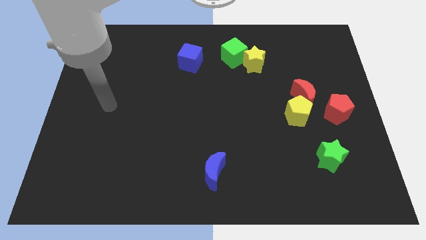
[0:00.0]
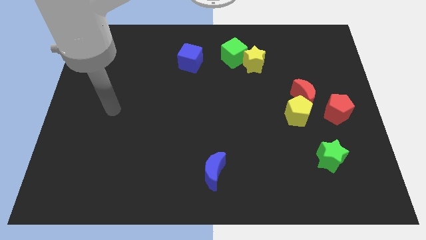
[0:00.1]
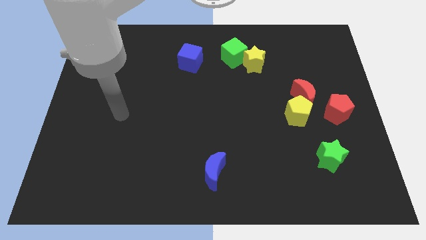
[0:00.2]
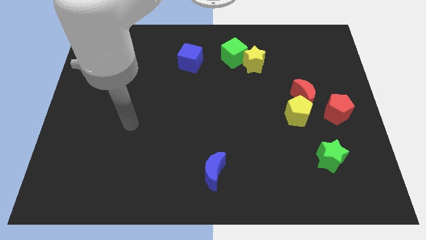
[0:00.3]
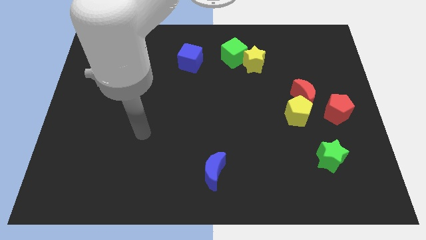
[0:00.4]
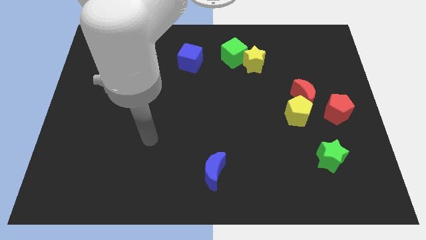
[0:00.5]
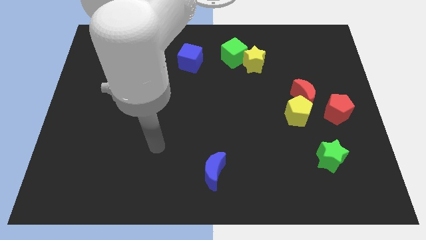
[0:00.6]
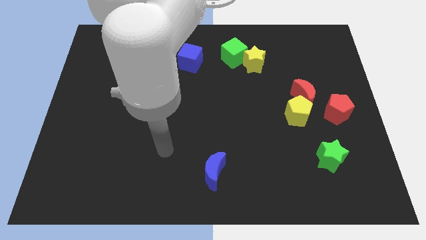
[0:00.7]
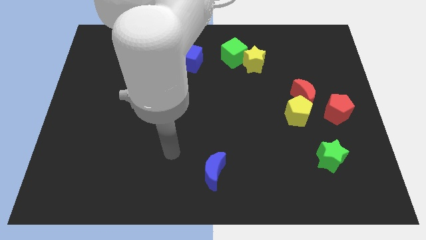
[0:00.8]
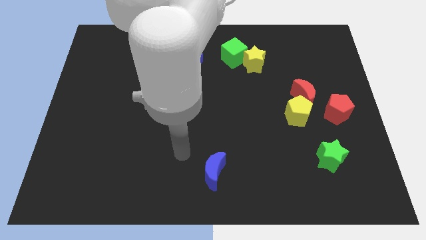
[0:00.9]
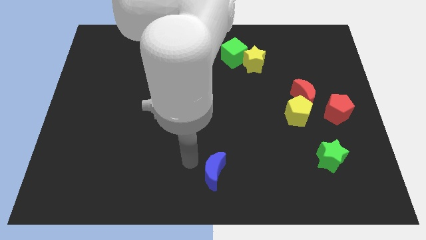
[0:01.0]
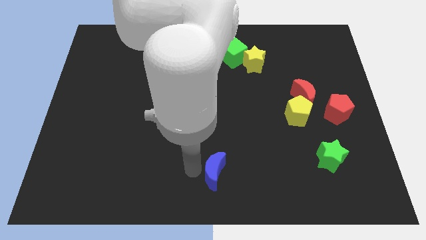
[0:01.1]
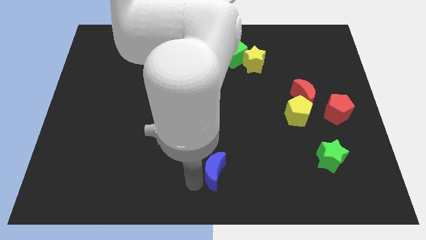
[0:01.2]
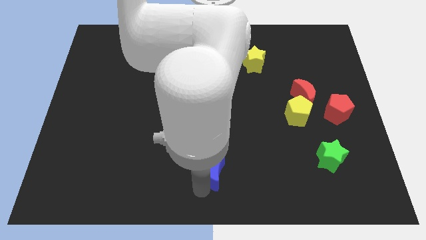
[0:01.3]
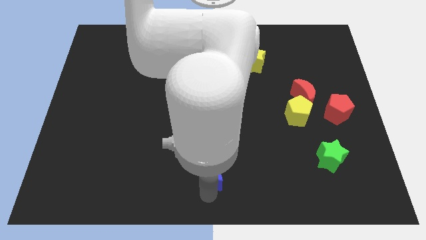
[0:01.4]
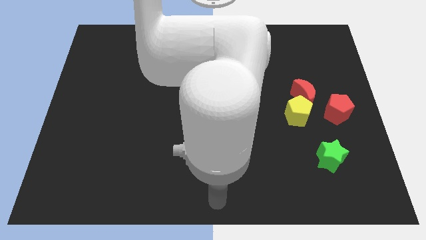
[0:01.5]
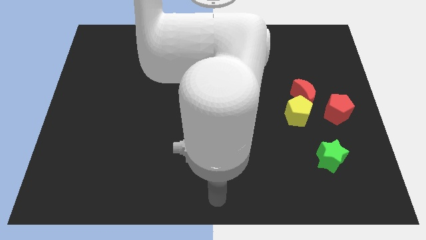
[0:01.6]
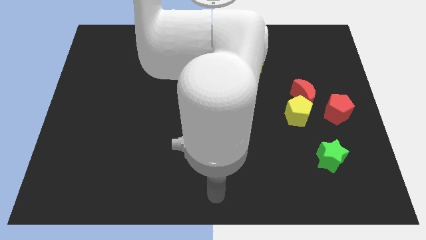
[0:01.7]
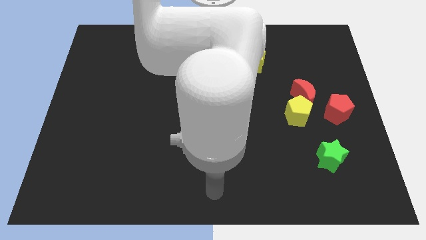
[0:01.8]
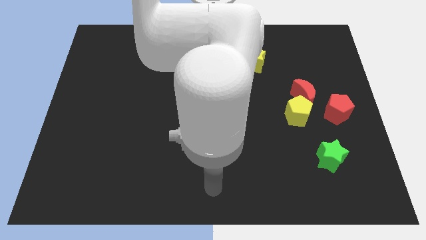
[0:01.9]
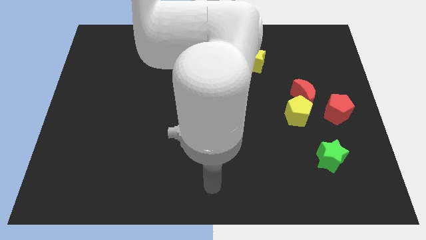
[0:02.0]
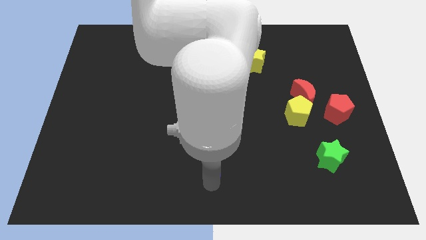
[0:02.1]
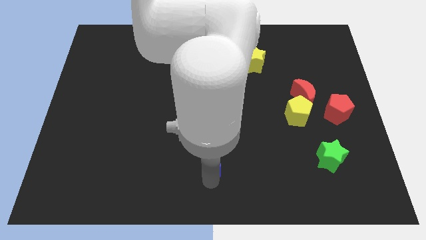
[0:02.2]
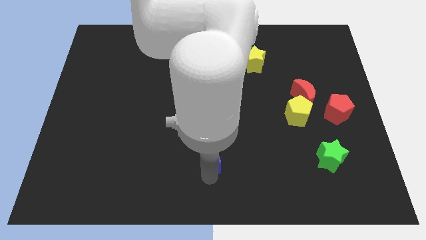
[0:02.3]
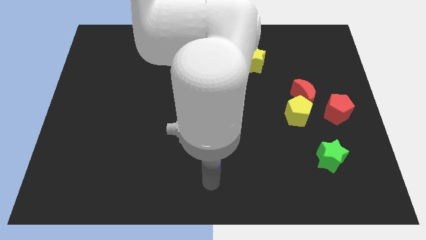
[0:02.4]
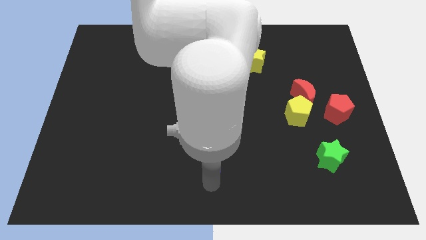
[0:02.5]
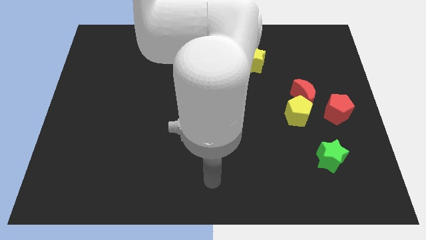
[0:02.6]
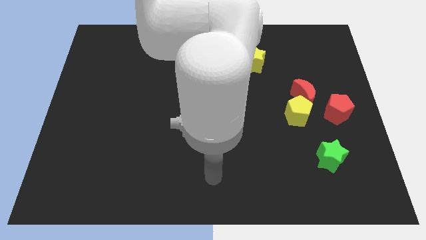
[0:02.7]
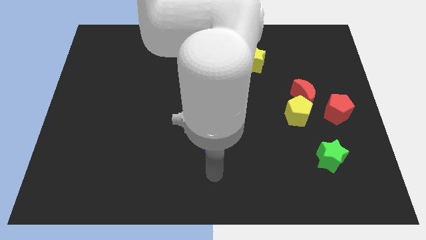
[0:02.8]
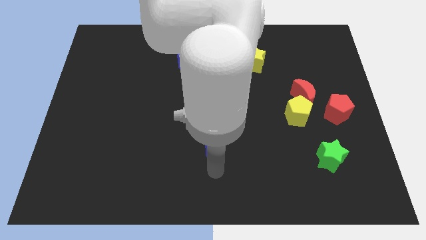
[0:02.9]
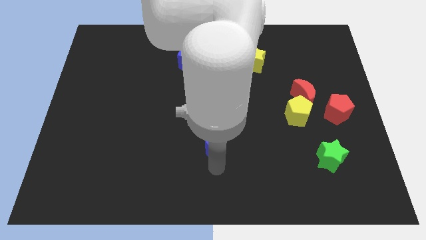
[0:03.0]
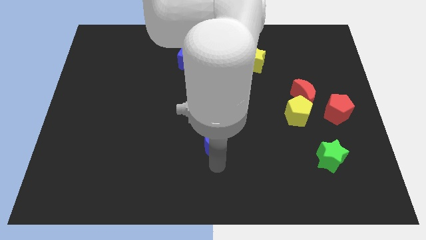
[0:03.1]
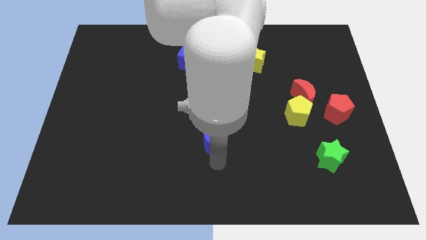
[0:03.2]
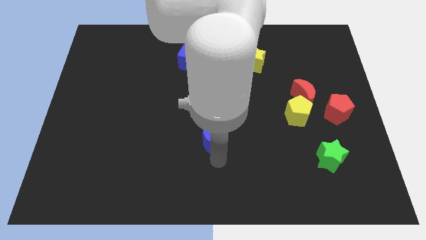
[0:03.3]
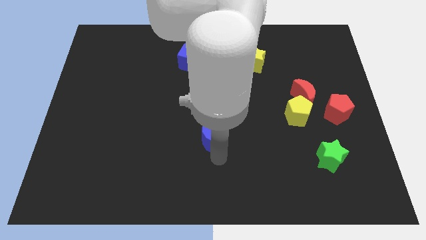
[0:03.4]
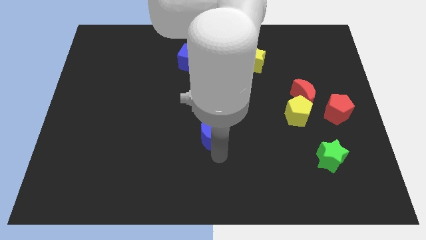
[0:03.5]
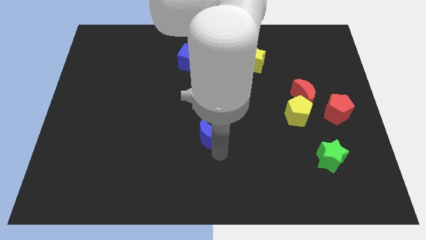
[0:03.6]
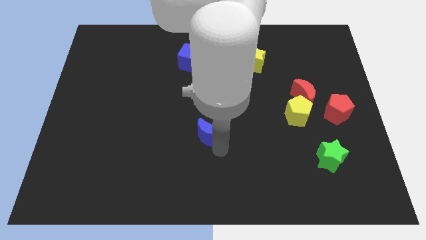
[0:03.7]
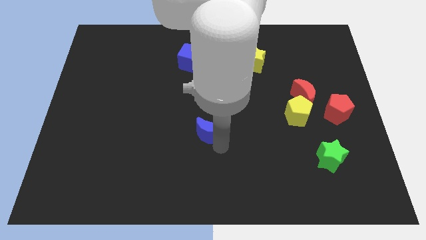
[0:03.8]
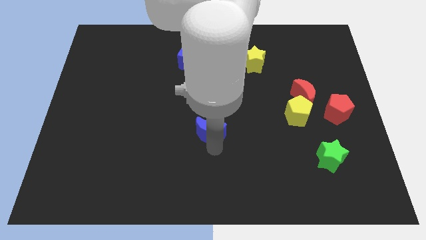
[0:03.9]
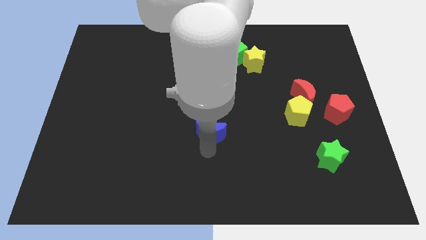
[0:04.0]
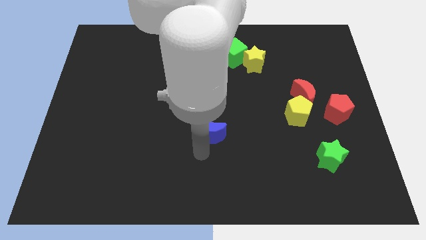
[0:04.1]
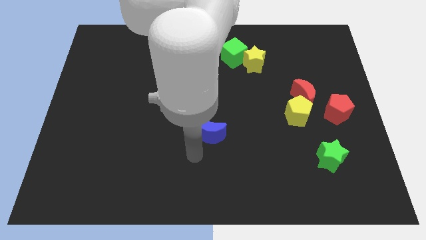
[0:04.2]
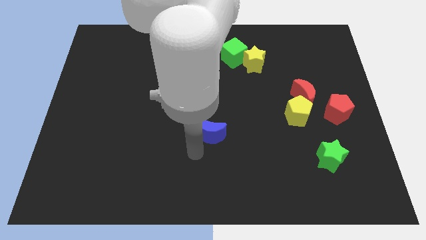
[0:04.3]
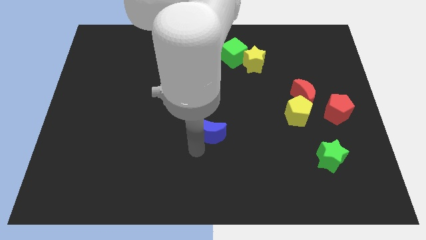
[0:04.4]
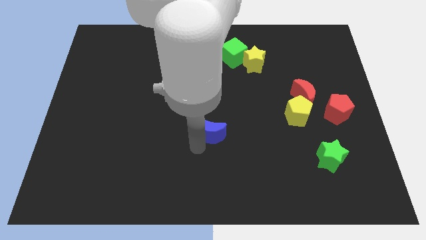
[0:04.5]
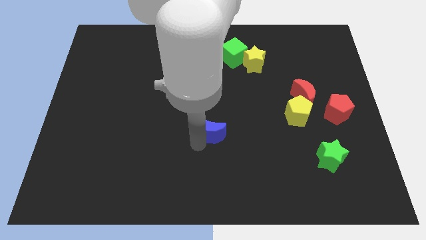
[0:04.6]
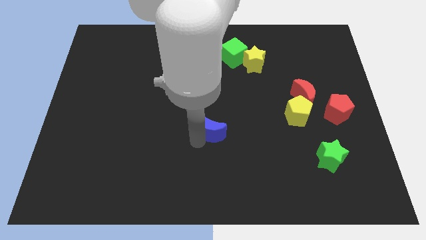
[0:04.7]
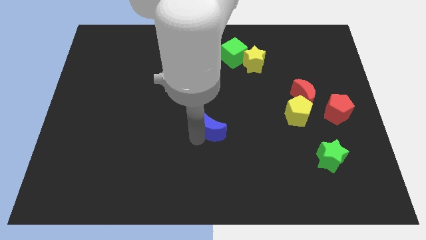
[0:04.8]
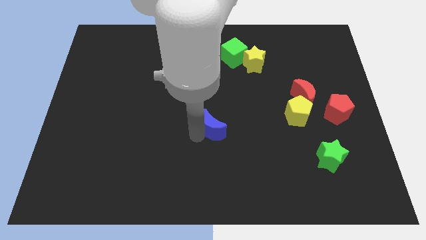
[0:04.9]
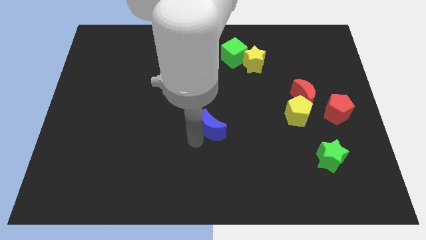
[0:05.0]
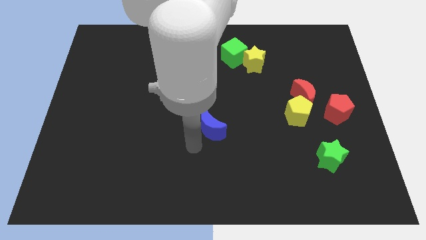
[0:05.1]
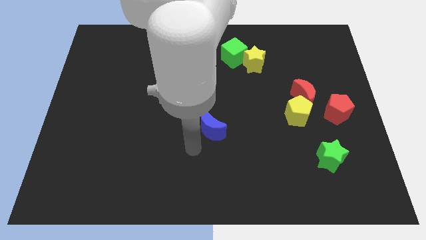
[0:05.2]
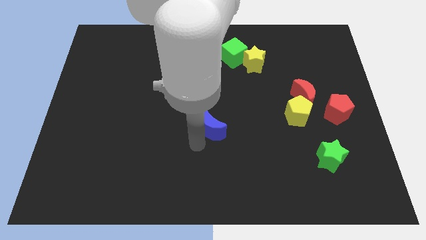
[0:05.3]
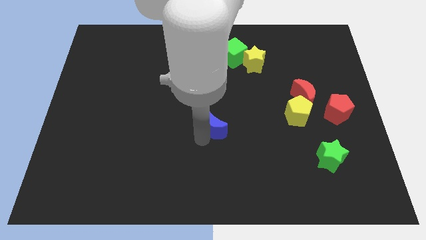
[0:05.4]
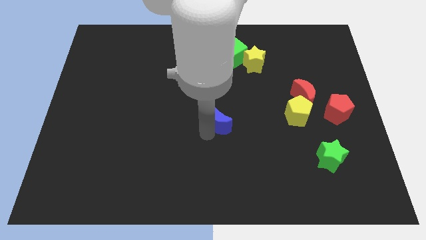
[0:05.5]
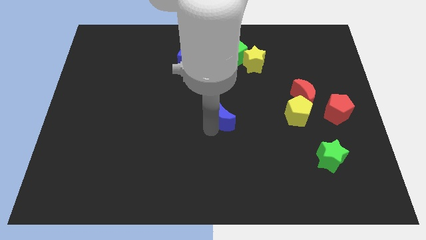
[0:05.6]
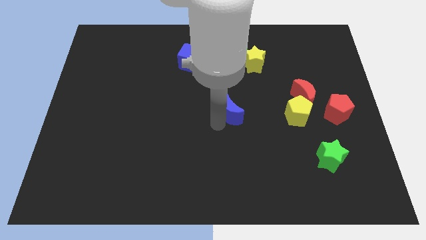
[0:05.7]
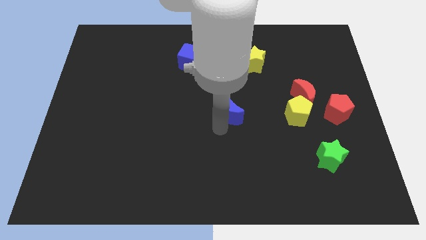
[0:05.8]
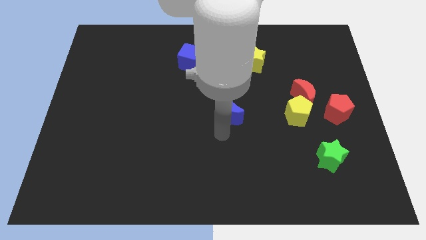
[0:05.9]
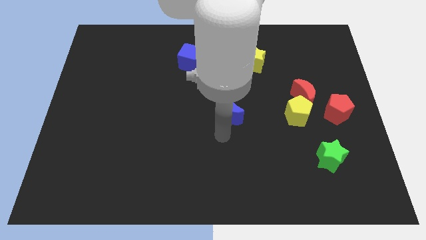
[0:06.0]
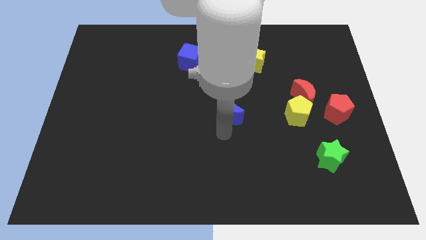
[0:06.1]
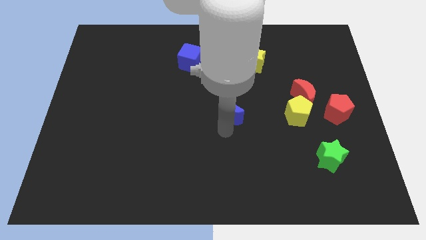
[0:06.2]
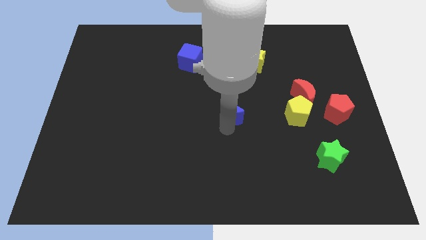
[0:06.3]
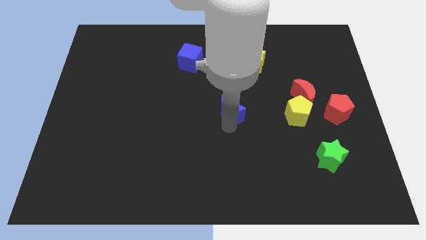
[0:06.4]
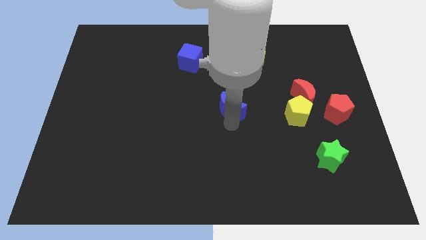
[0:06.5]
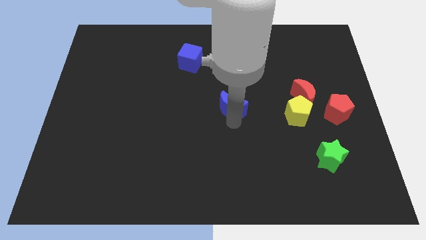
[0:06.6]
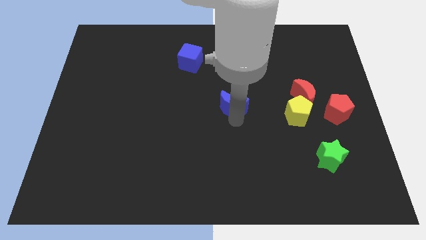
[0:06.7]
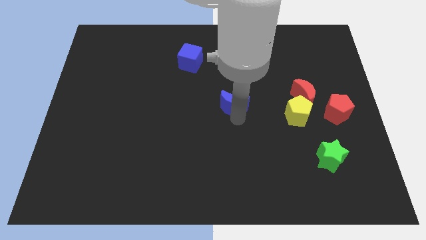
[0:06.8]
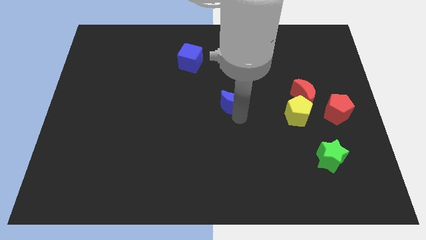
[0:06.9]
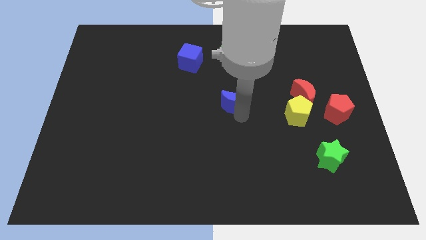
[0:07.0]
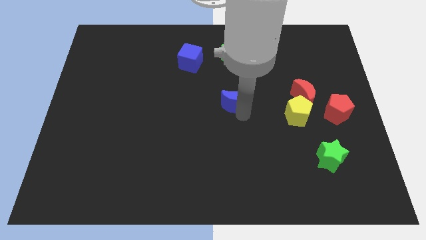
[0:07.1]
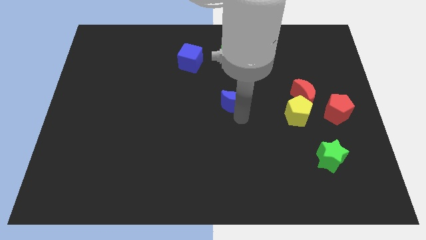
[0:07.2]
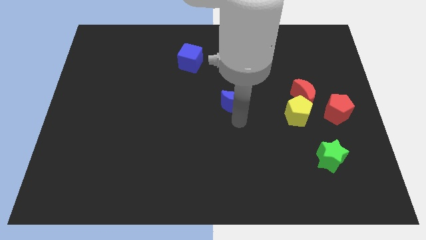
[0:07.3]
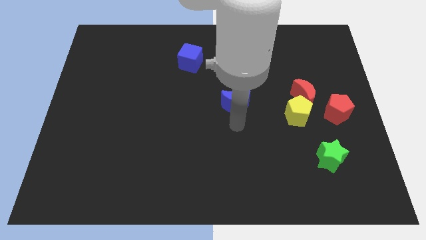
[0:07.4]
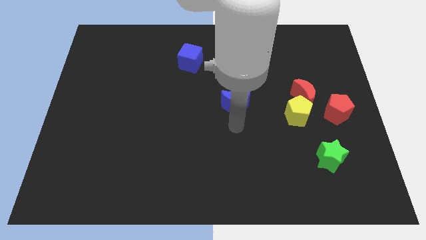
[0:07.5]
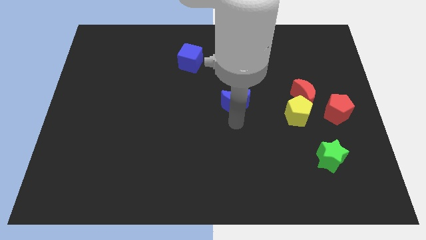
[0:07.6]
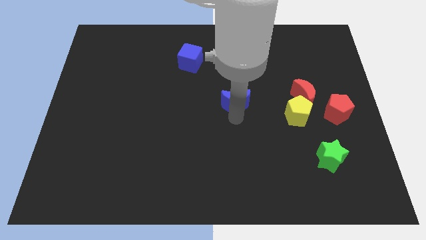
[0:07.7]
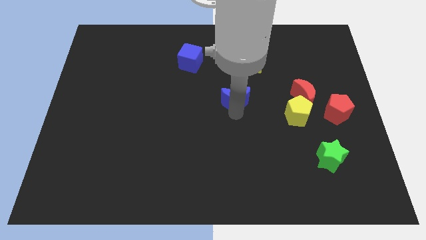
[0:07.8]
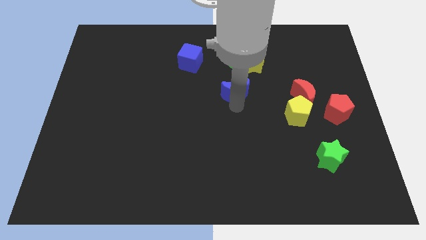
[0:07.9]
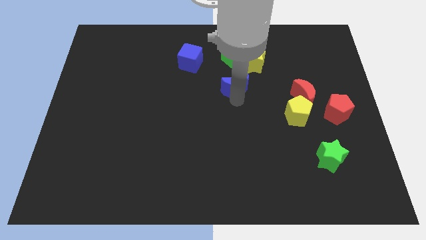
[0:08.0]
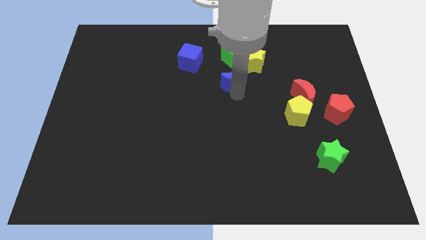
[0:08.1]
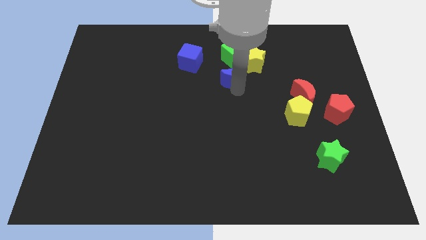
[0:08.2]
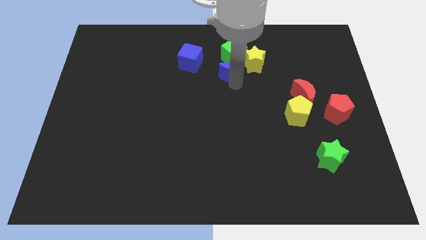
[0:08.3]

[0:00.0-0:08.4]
push the blue moon to the green cube
